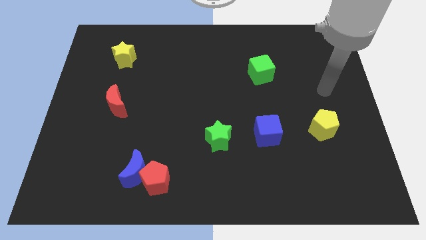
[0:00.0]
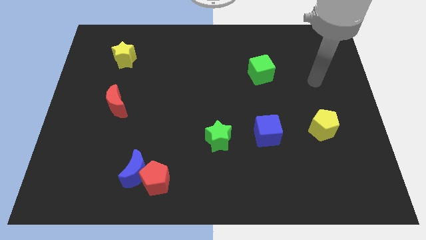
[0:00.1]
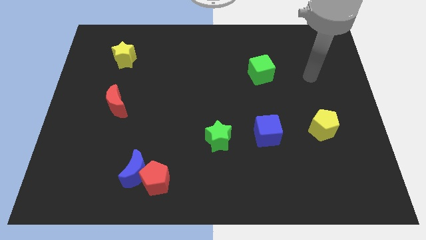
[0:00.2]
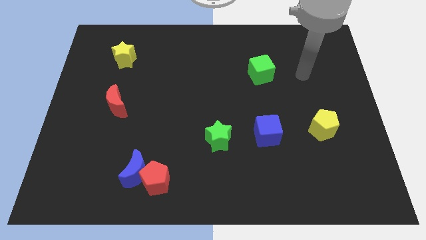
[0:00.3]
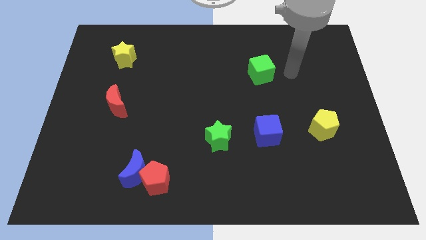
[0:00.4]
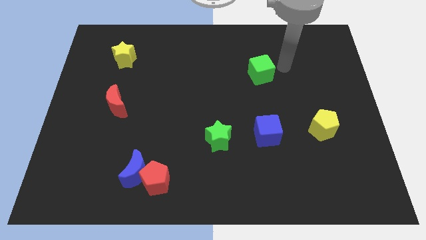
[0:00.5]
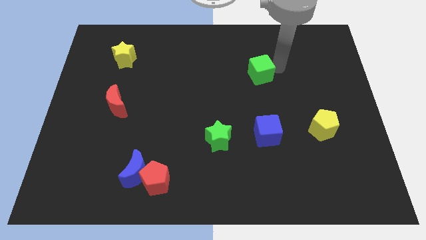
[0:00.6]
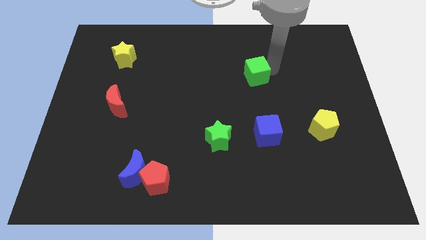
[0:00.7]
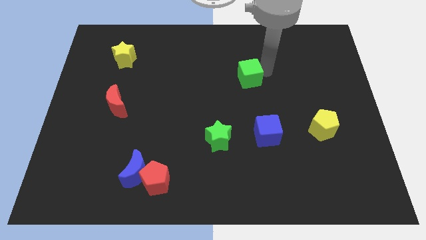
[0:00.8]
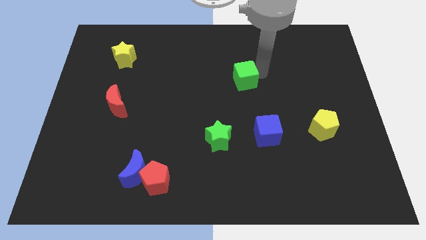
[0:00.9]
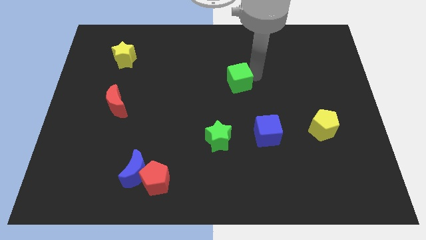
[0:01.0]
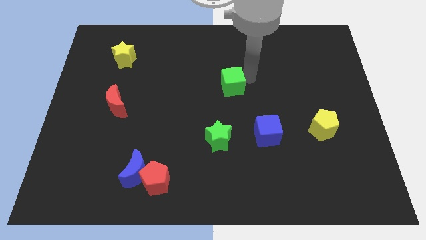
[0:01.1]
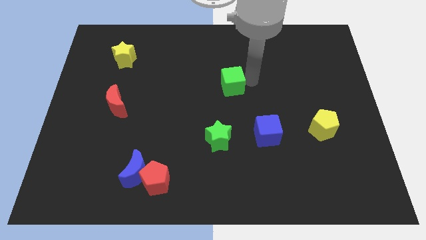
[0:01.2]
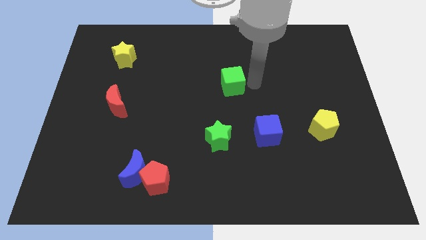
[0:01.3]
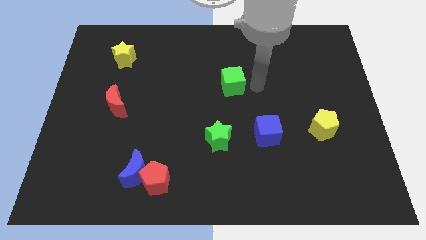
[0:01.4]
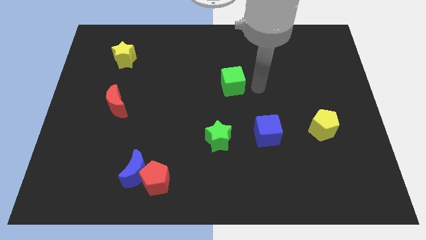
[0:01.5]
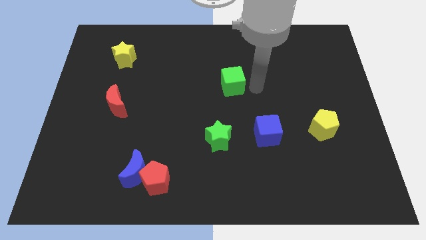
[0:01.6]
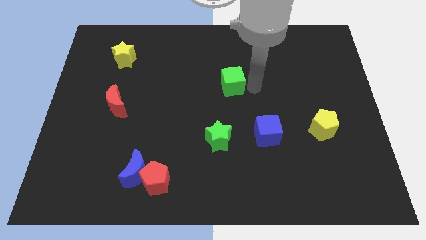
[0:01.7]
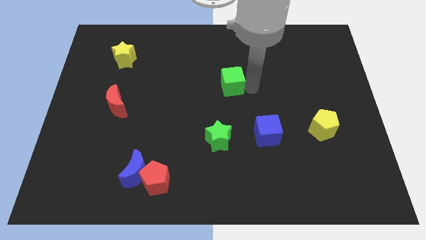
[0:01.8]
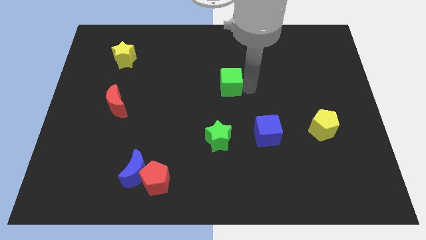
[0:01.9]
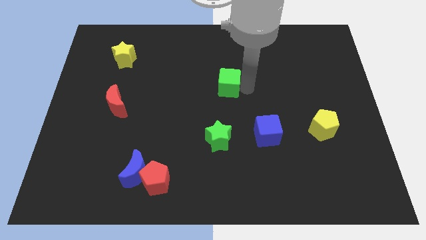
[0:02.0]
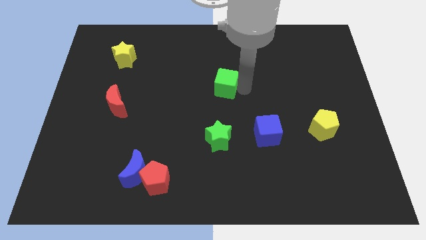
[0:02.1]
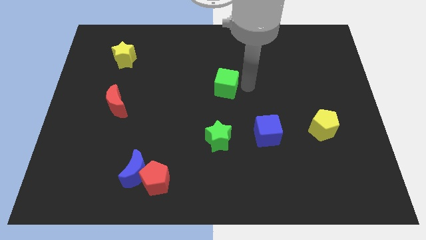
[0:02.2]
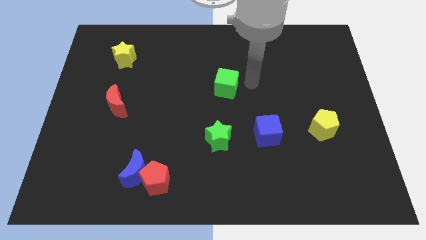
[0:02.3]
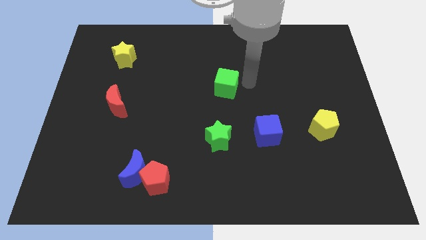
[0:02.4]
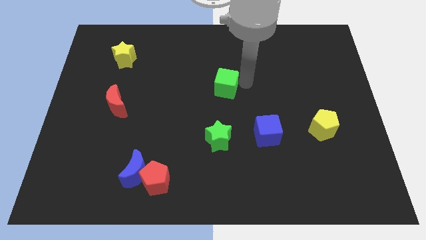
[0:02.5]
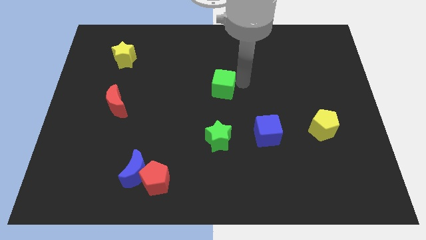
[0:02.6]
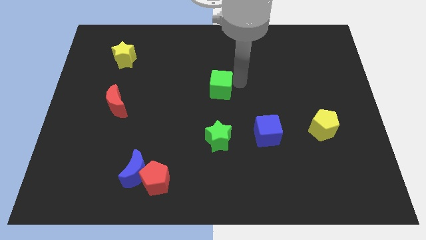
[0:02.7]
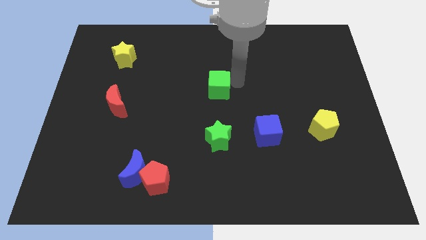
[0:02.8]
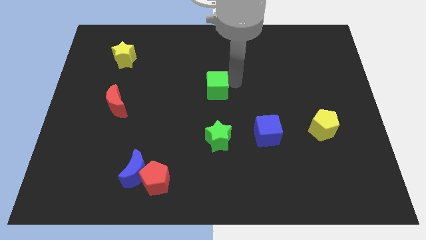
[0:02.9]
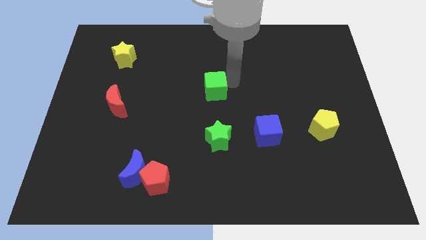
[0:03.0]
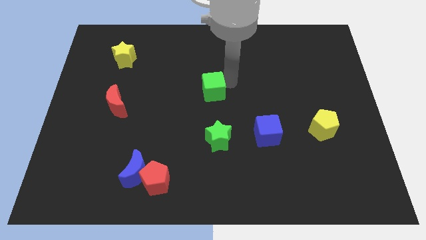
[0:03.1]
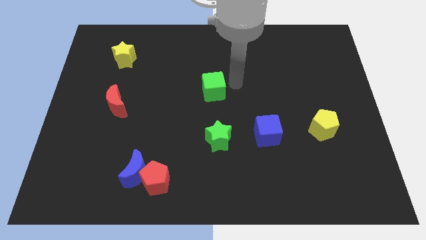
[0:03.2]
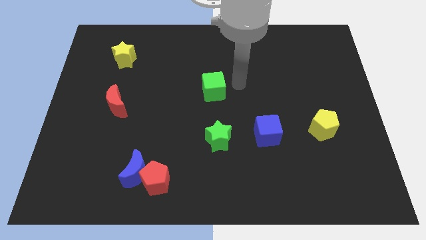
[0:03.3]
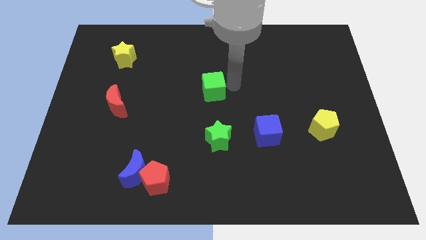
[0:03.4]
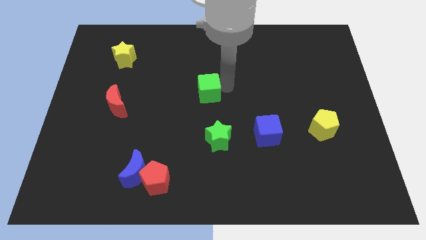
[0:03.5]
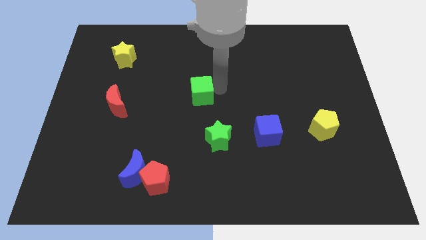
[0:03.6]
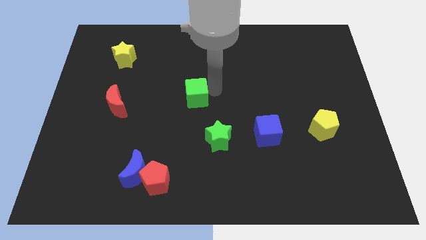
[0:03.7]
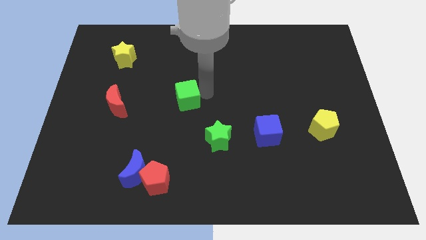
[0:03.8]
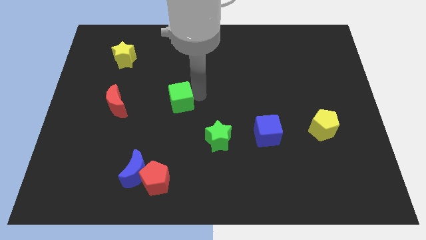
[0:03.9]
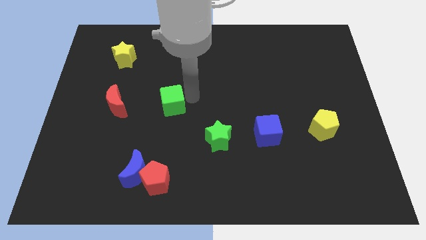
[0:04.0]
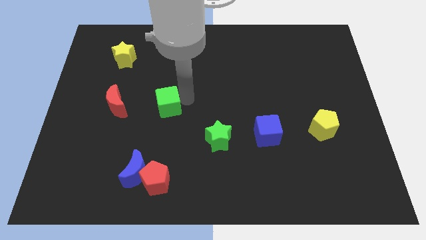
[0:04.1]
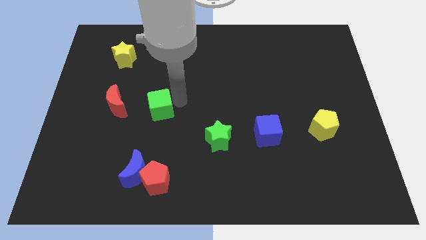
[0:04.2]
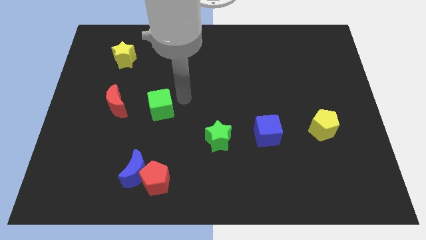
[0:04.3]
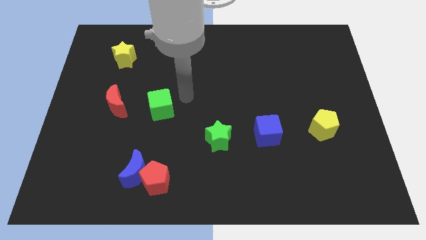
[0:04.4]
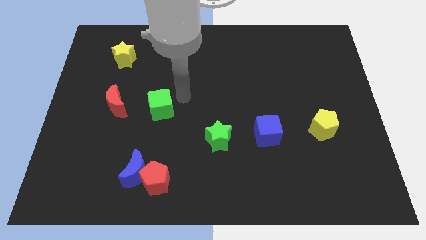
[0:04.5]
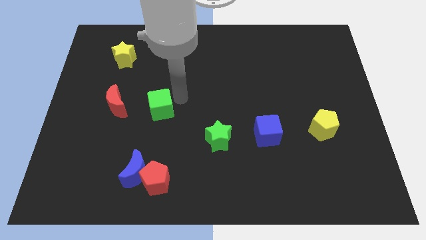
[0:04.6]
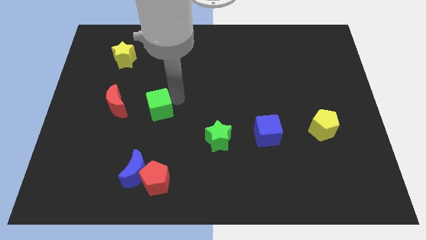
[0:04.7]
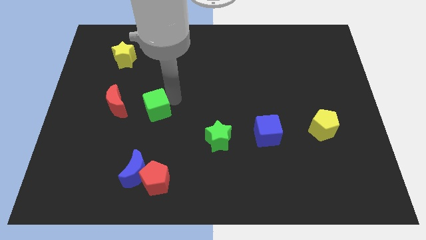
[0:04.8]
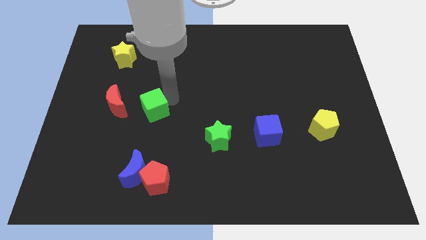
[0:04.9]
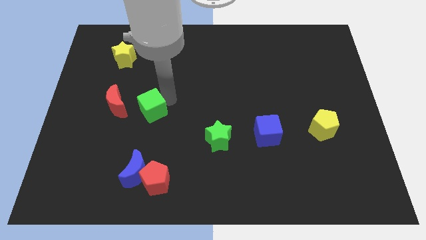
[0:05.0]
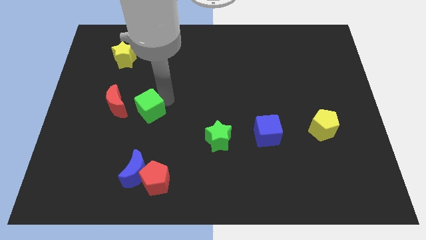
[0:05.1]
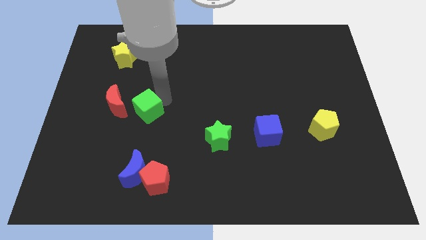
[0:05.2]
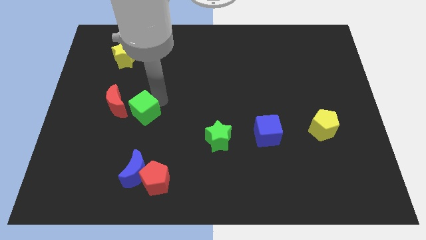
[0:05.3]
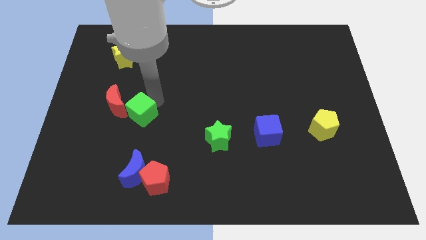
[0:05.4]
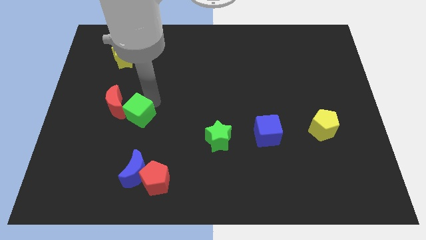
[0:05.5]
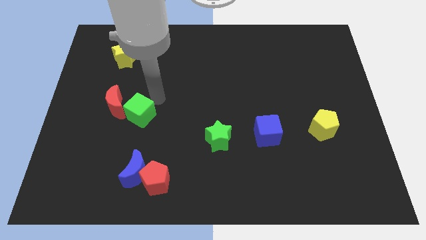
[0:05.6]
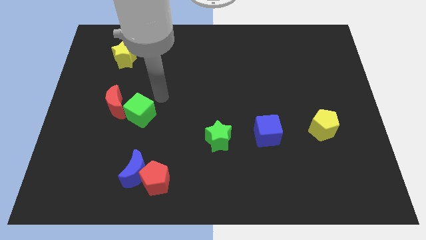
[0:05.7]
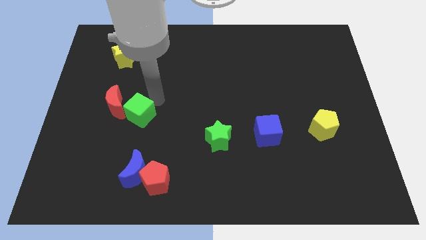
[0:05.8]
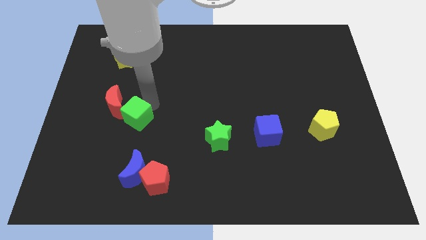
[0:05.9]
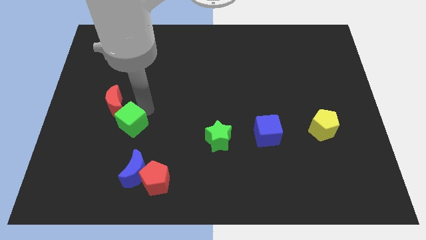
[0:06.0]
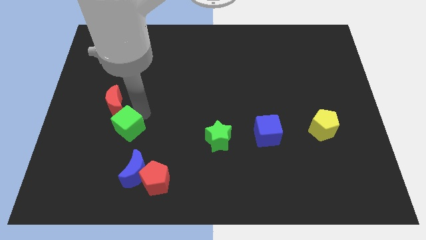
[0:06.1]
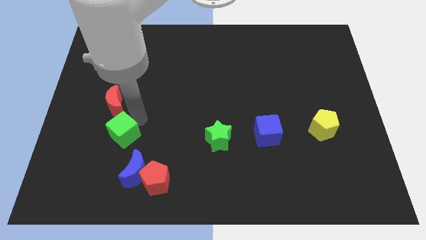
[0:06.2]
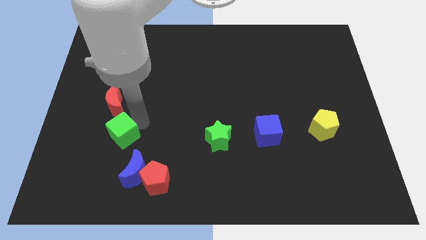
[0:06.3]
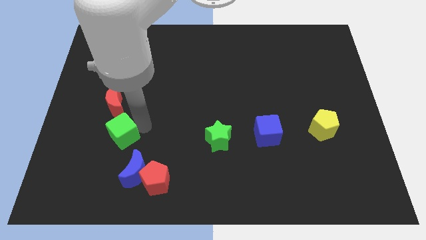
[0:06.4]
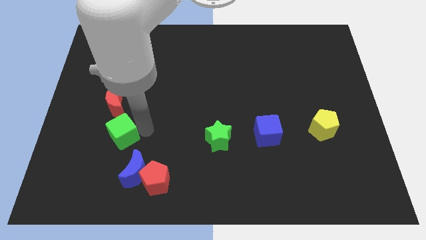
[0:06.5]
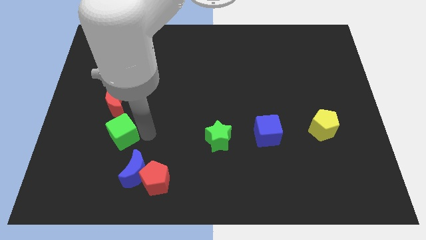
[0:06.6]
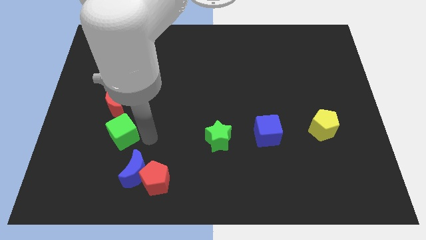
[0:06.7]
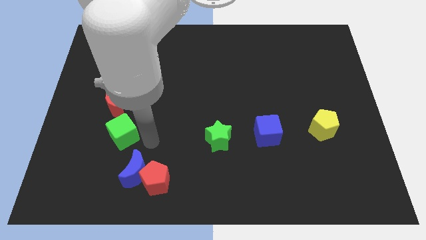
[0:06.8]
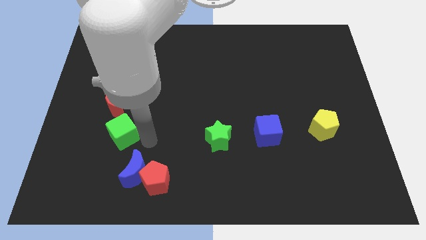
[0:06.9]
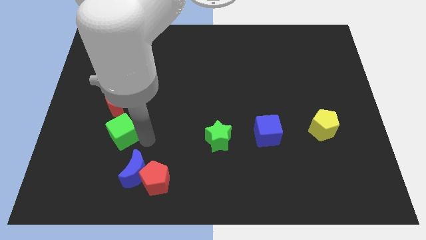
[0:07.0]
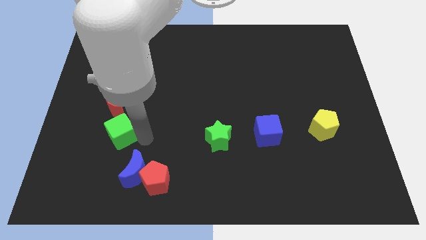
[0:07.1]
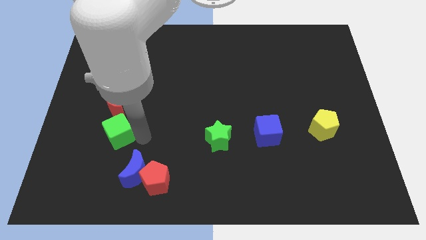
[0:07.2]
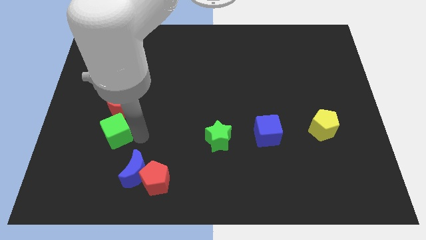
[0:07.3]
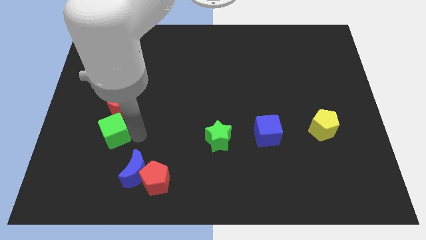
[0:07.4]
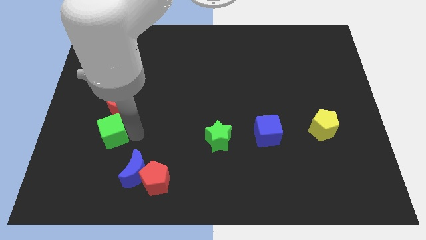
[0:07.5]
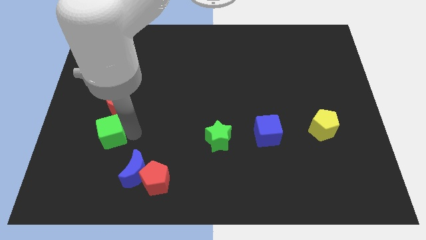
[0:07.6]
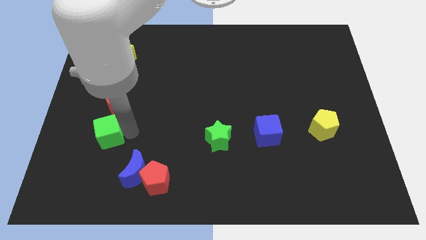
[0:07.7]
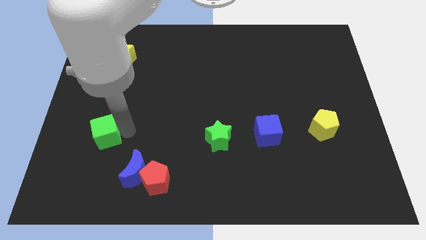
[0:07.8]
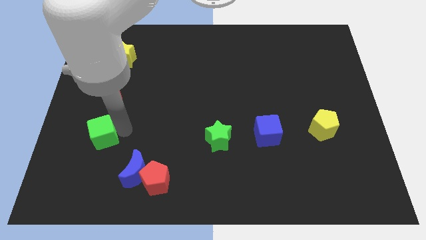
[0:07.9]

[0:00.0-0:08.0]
move the green cube diagonally down and to the left of the red moon
